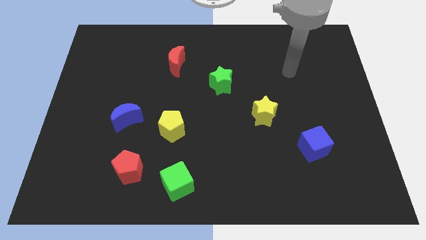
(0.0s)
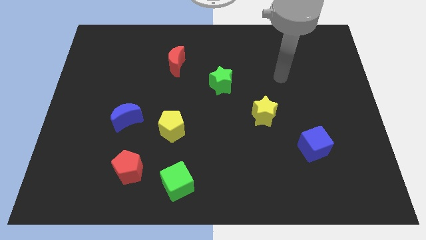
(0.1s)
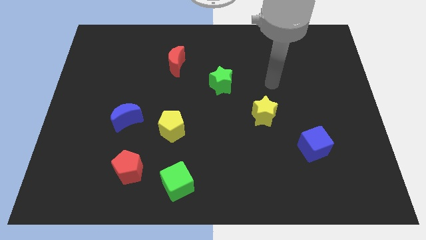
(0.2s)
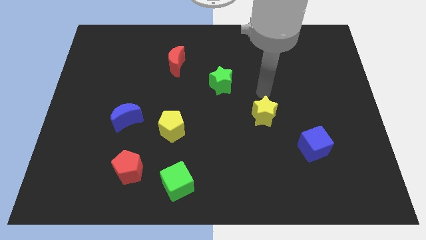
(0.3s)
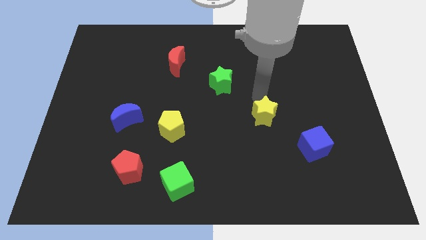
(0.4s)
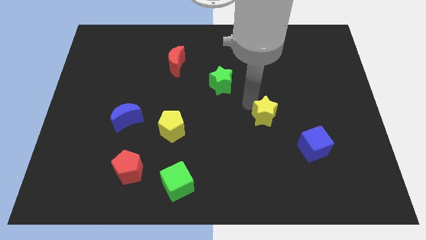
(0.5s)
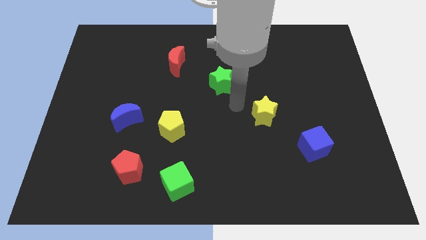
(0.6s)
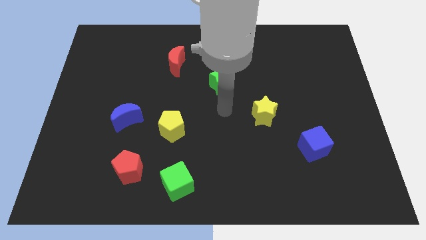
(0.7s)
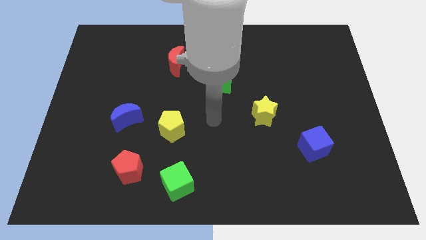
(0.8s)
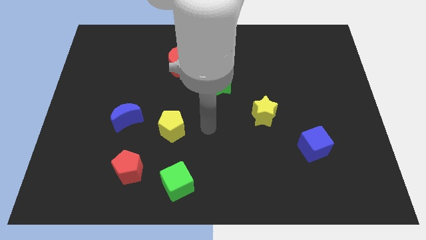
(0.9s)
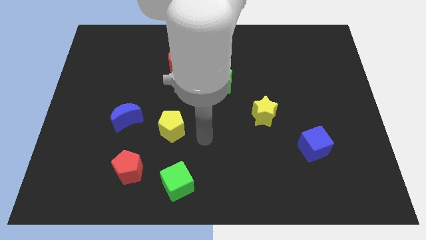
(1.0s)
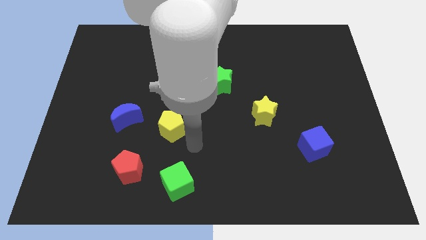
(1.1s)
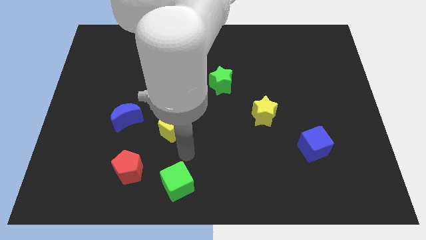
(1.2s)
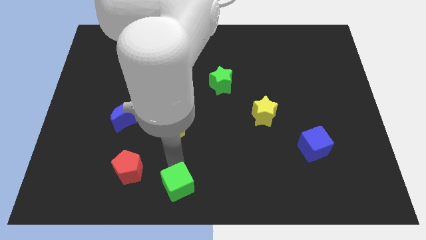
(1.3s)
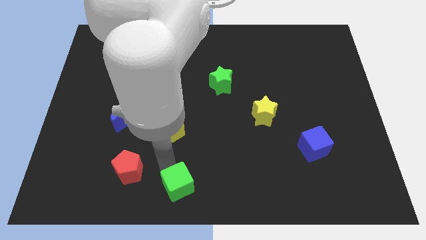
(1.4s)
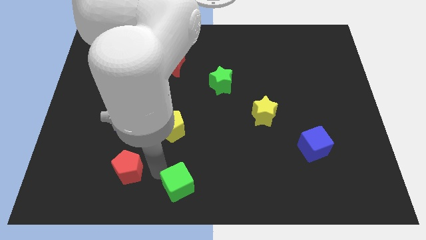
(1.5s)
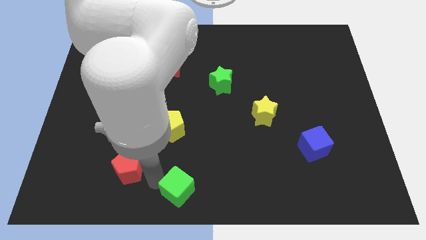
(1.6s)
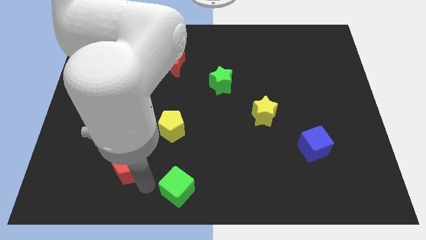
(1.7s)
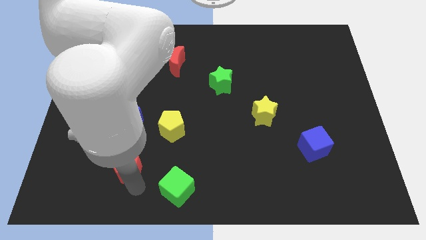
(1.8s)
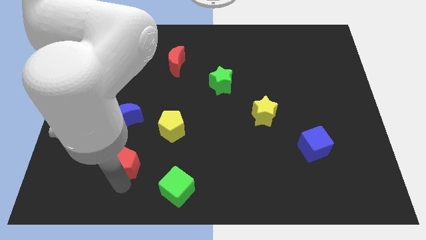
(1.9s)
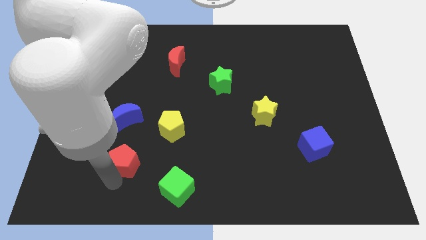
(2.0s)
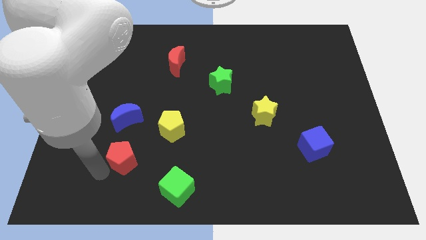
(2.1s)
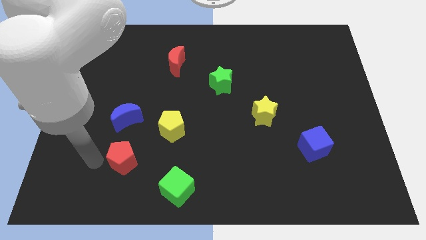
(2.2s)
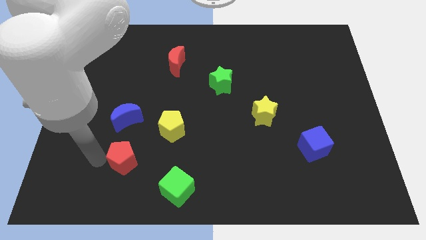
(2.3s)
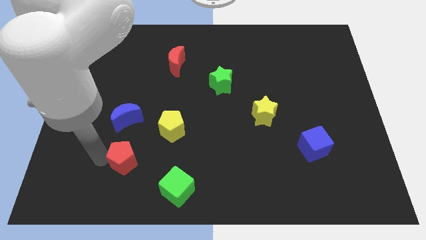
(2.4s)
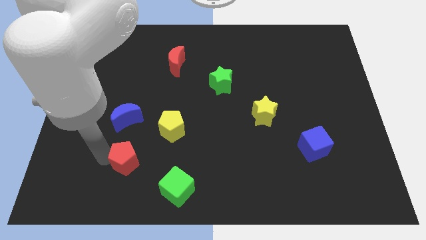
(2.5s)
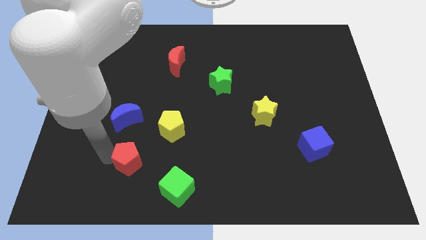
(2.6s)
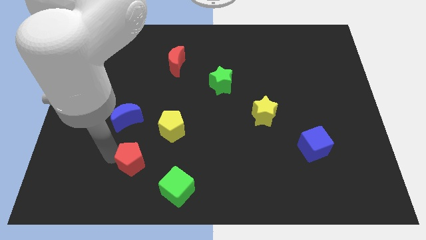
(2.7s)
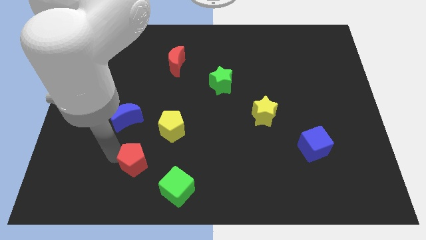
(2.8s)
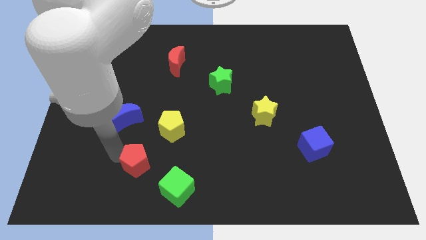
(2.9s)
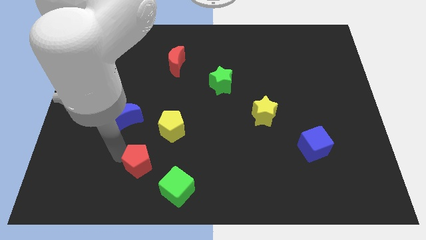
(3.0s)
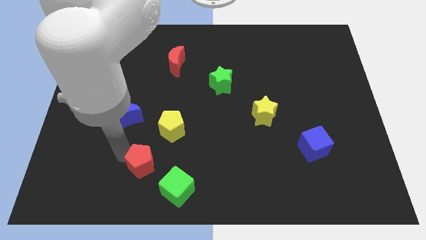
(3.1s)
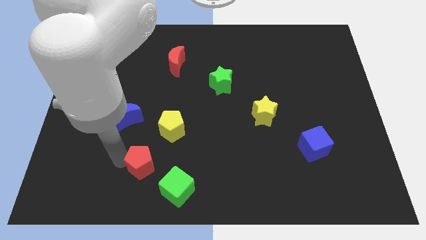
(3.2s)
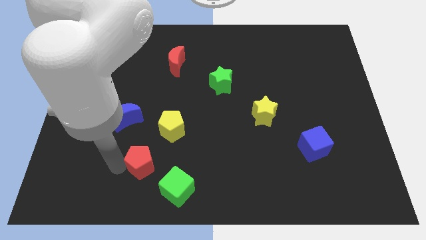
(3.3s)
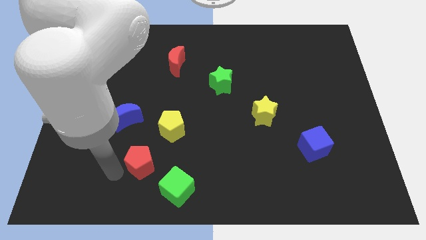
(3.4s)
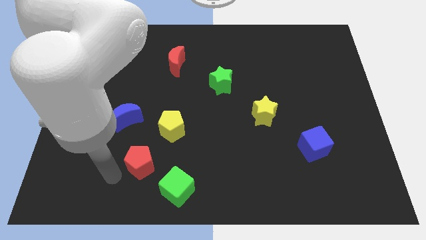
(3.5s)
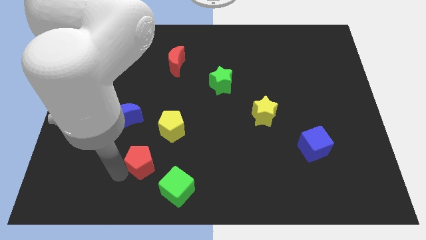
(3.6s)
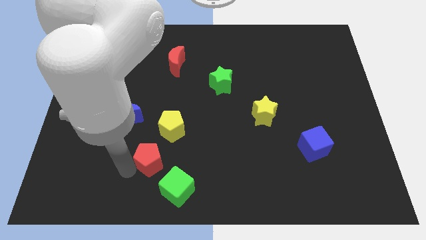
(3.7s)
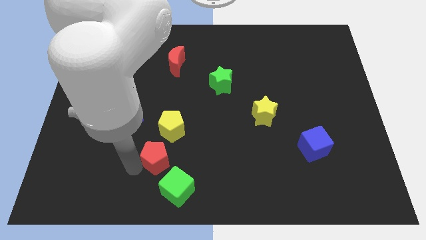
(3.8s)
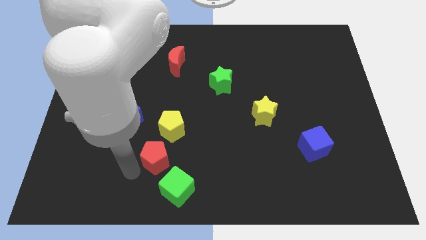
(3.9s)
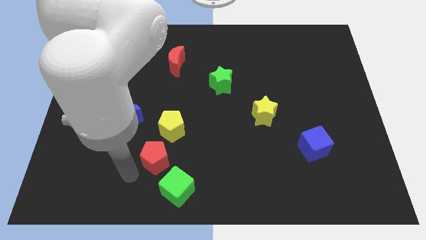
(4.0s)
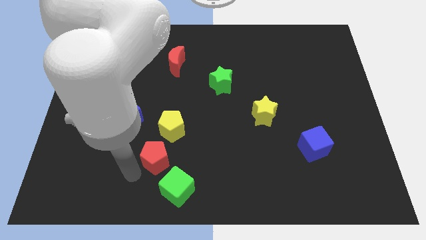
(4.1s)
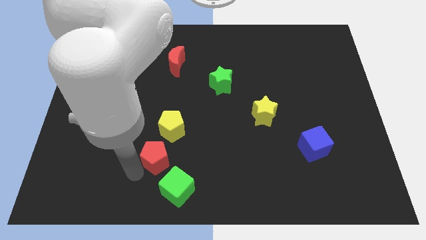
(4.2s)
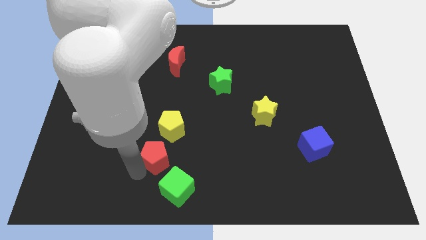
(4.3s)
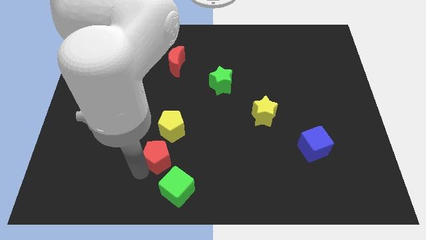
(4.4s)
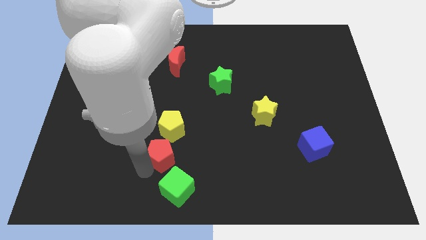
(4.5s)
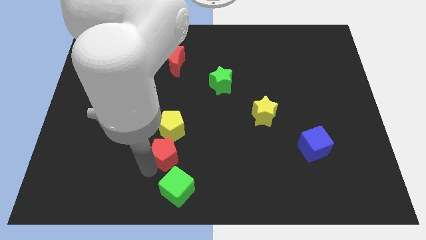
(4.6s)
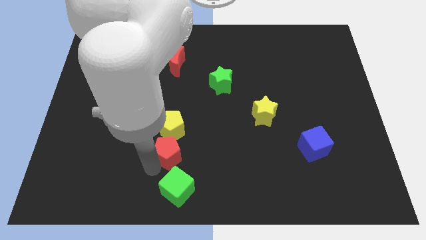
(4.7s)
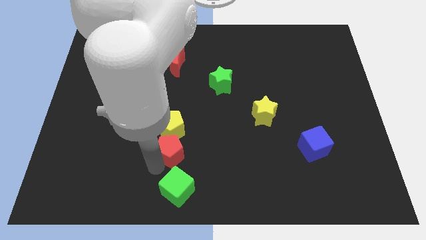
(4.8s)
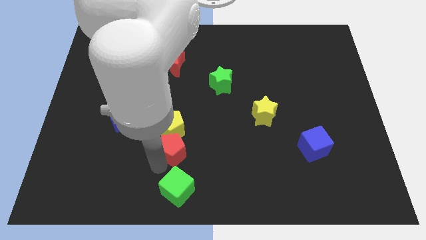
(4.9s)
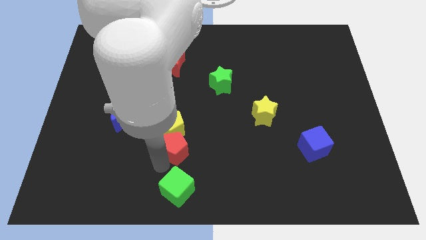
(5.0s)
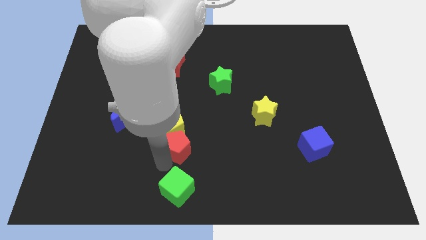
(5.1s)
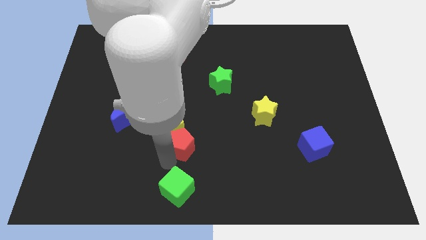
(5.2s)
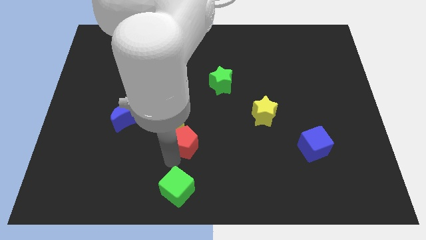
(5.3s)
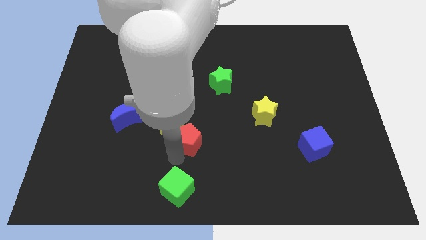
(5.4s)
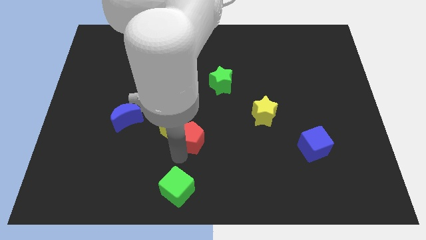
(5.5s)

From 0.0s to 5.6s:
slide the red pentagon to the middle of the board

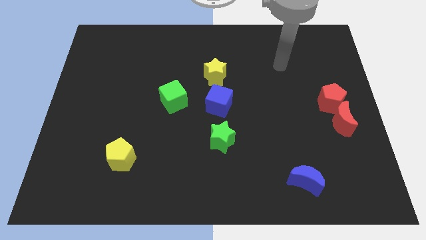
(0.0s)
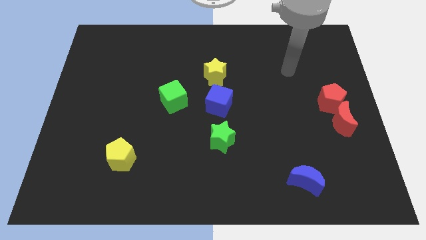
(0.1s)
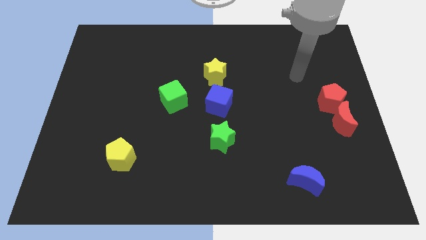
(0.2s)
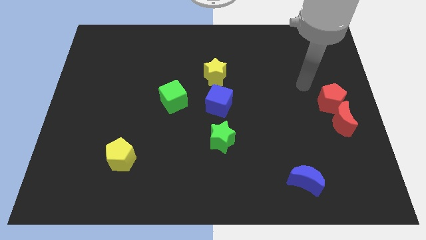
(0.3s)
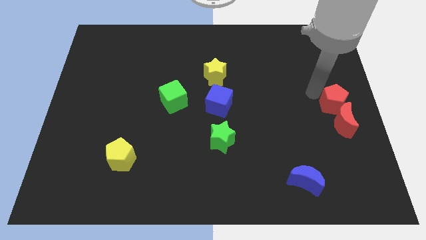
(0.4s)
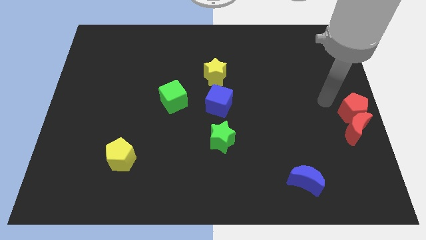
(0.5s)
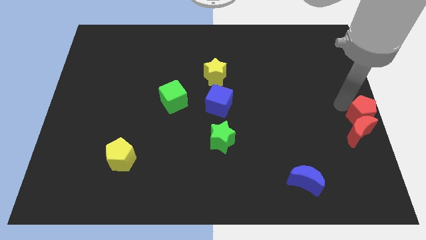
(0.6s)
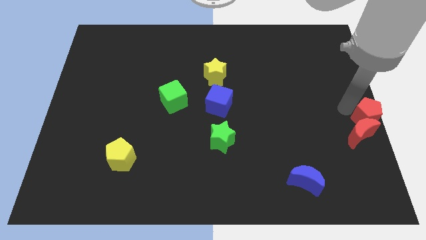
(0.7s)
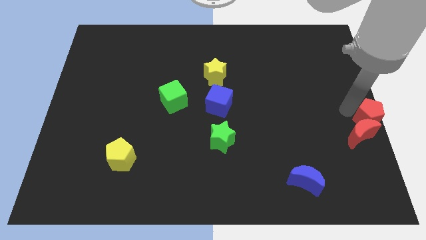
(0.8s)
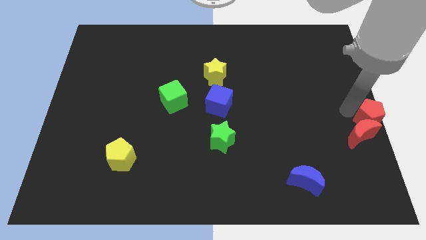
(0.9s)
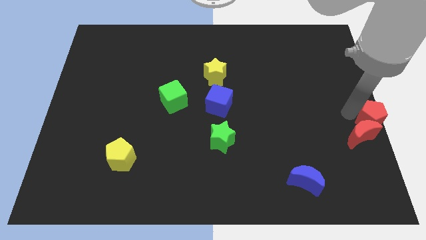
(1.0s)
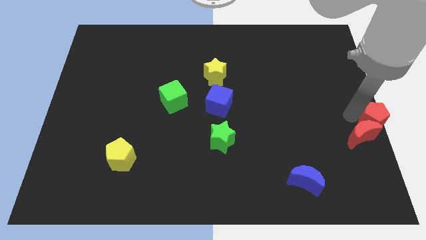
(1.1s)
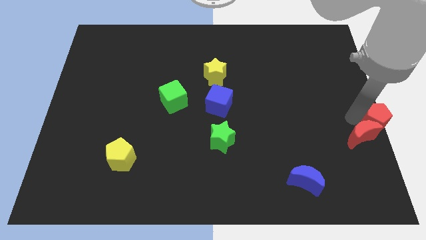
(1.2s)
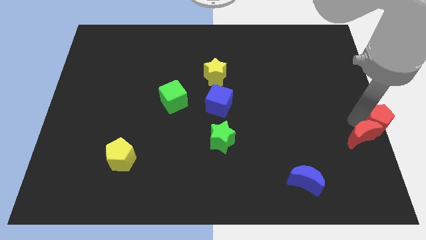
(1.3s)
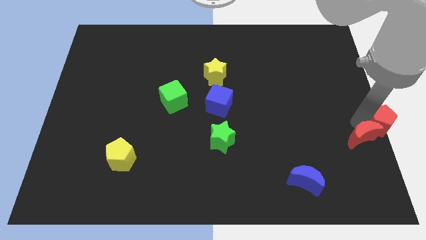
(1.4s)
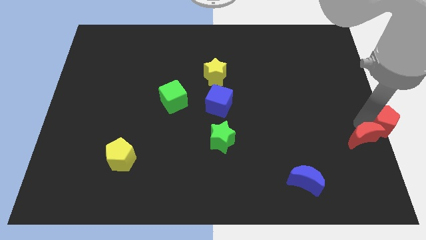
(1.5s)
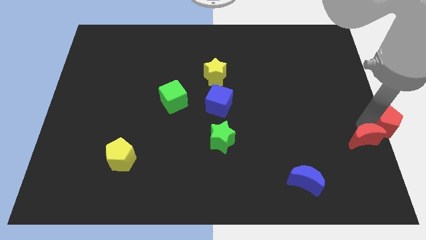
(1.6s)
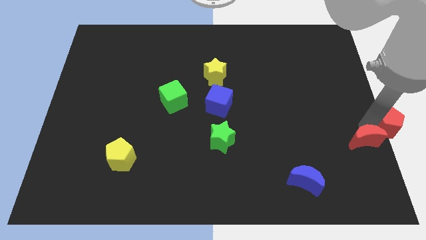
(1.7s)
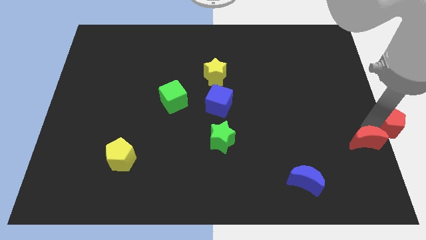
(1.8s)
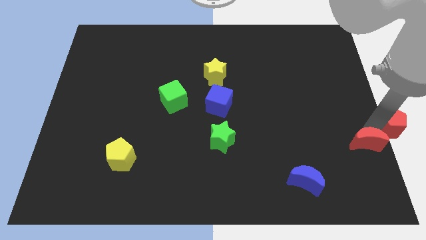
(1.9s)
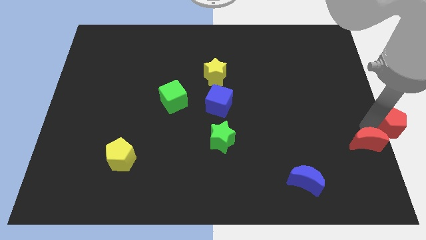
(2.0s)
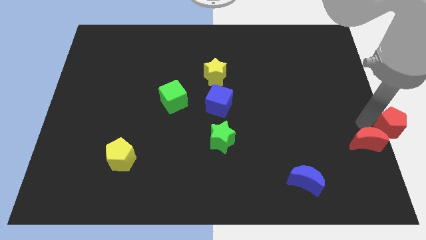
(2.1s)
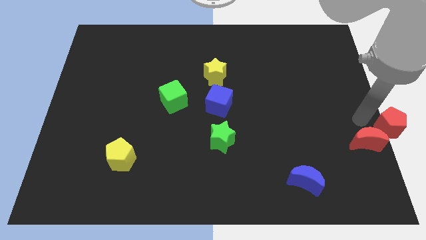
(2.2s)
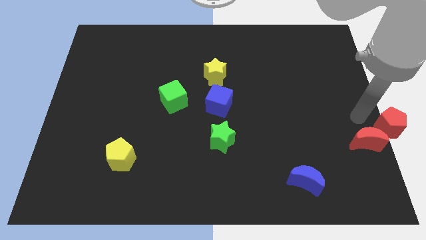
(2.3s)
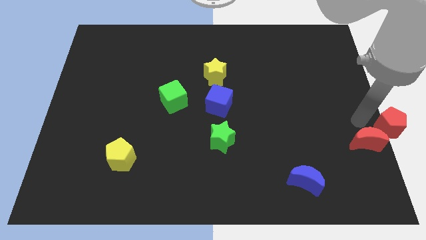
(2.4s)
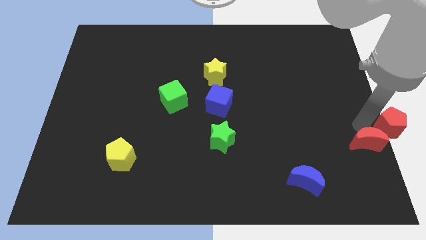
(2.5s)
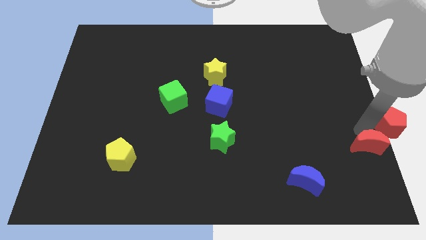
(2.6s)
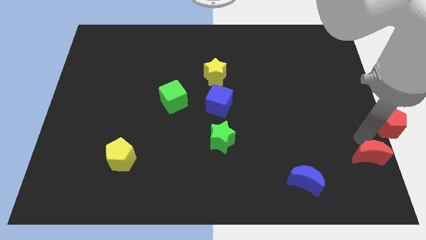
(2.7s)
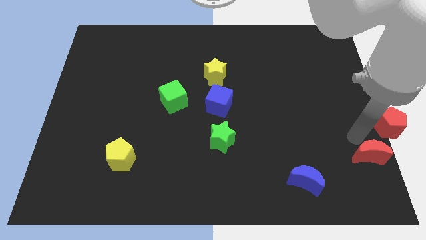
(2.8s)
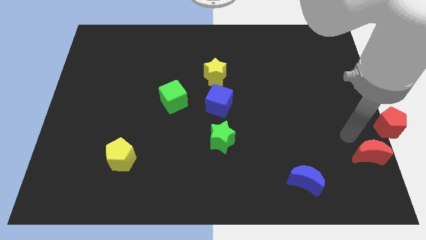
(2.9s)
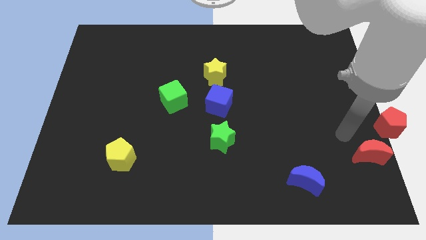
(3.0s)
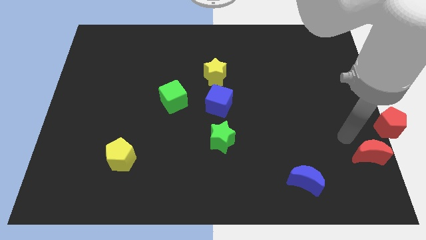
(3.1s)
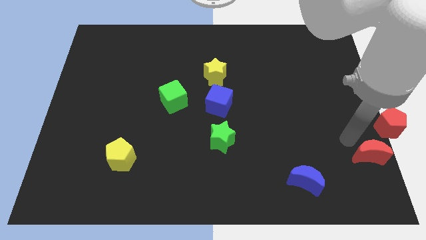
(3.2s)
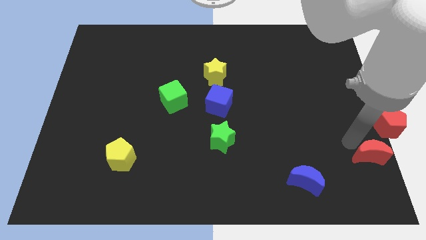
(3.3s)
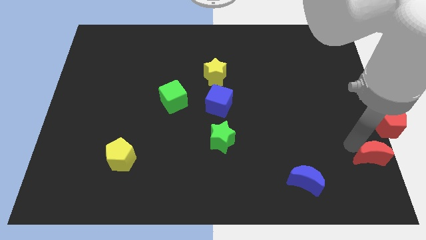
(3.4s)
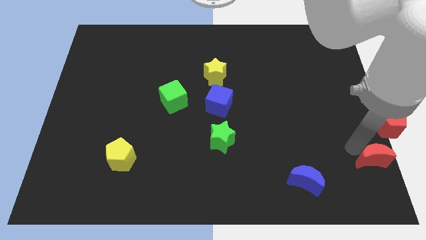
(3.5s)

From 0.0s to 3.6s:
move the red moon to the bottom right of the board
